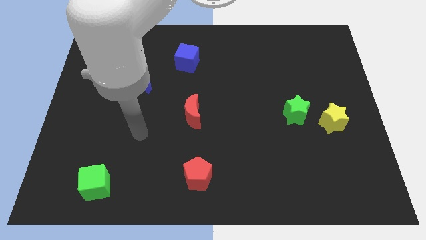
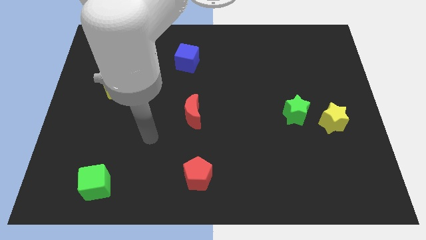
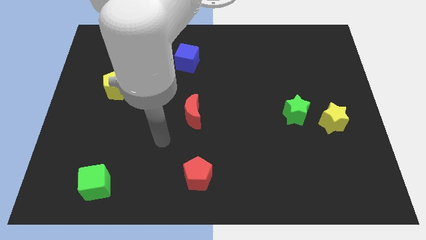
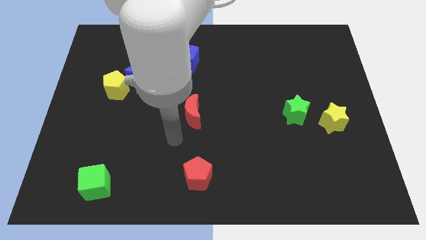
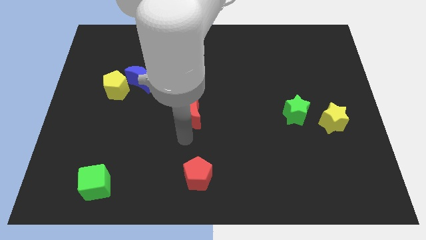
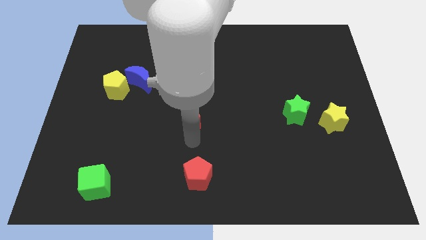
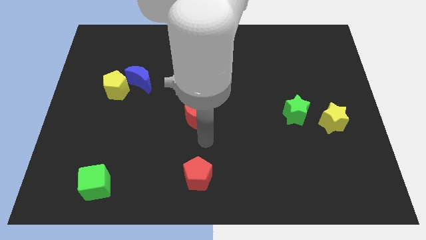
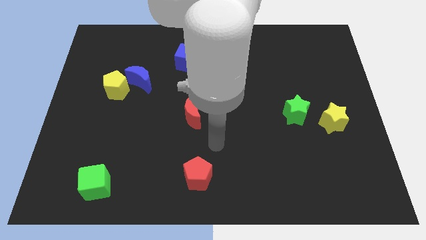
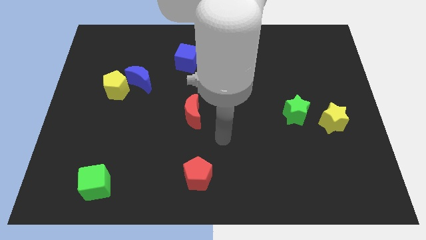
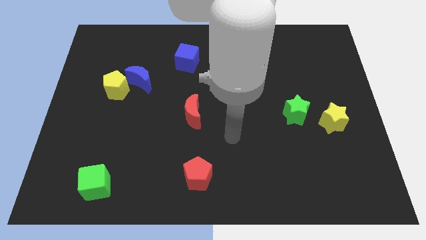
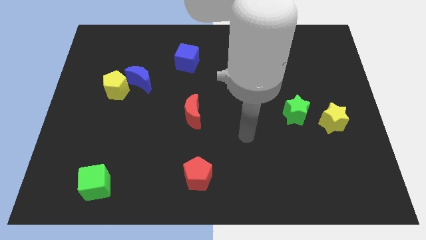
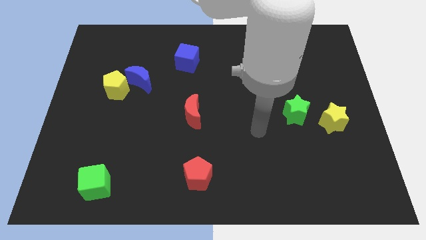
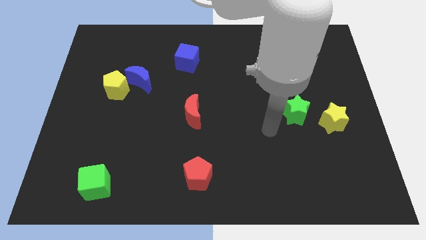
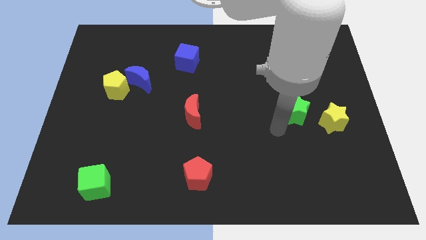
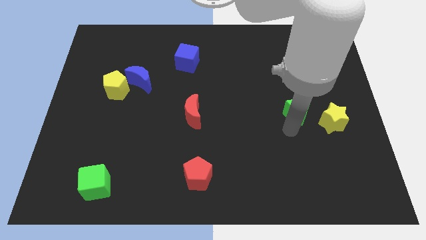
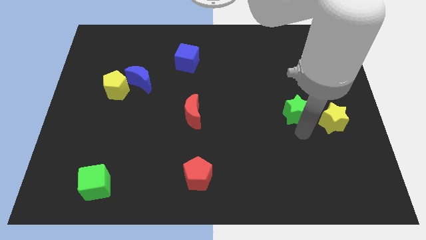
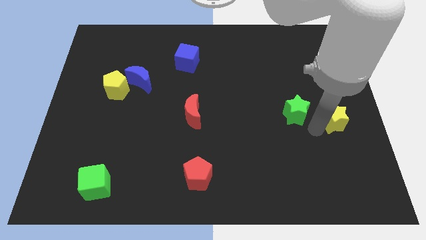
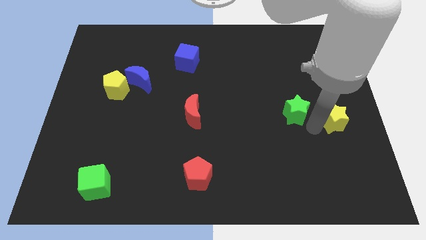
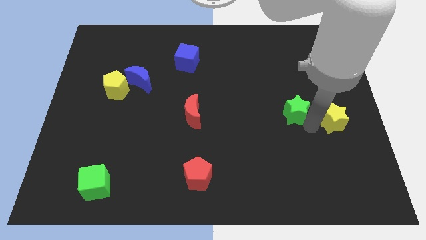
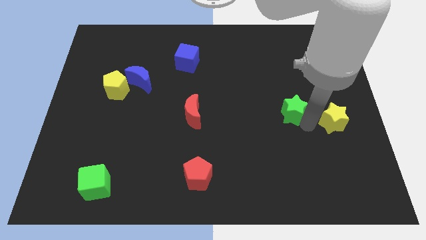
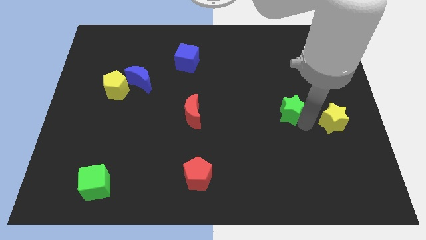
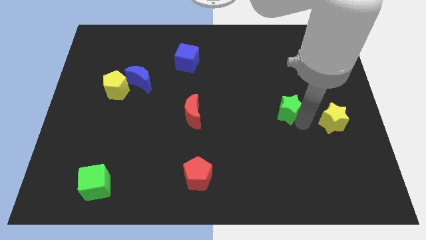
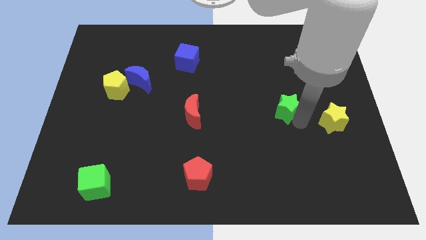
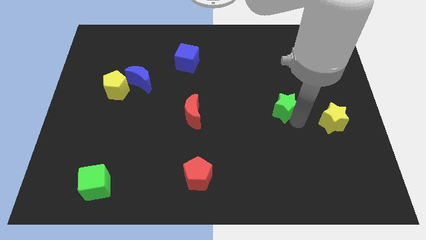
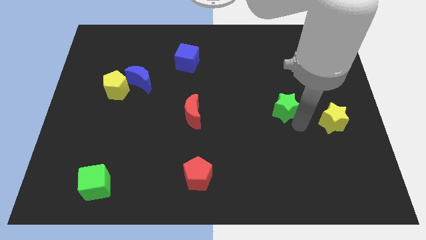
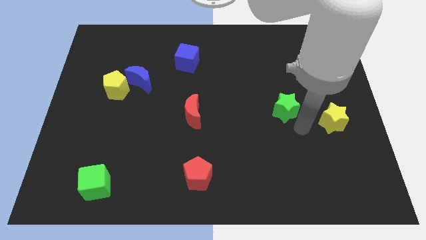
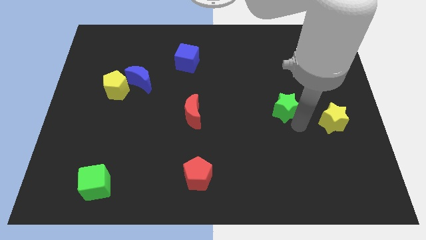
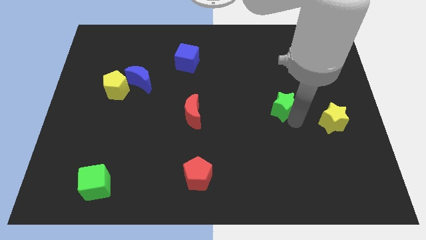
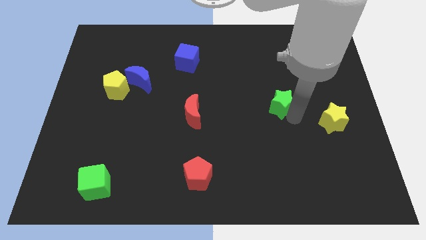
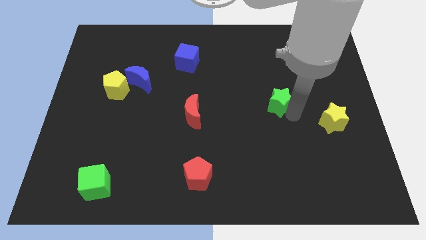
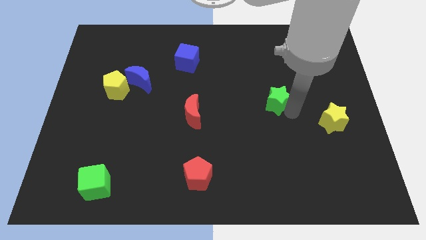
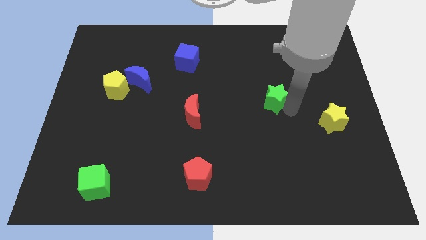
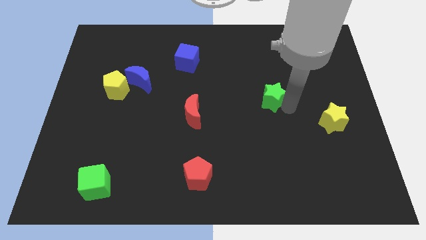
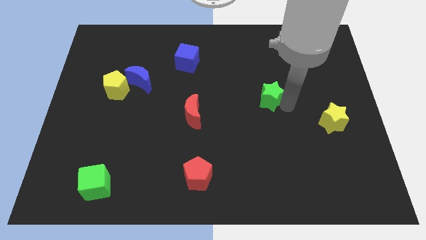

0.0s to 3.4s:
slightly slide the green star up and left

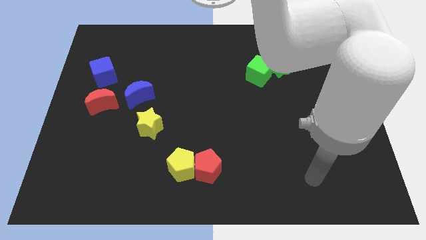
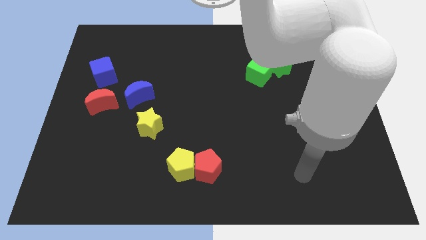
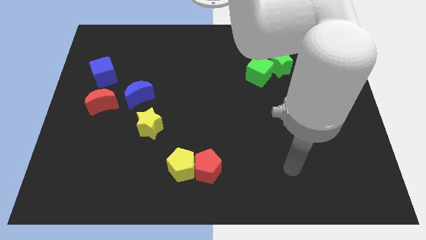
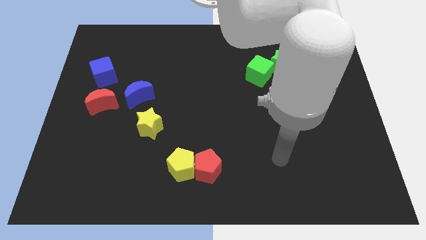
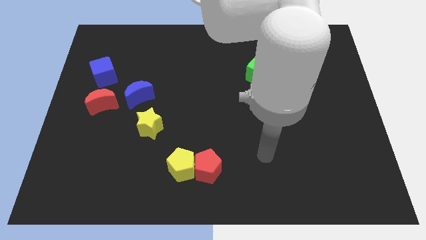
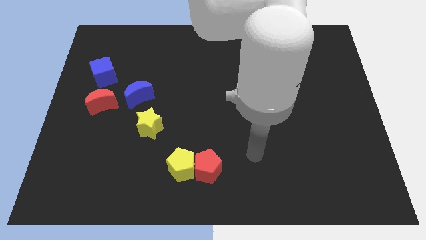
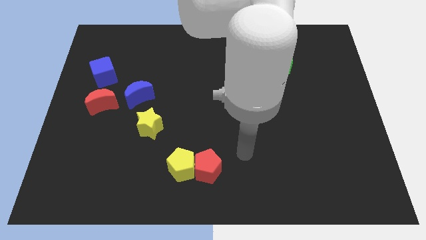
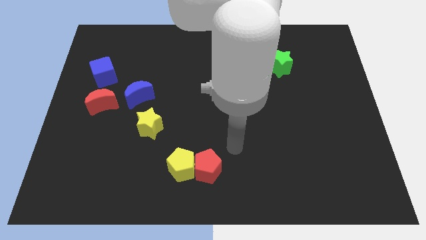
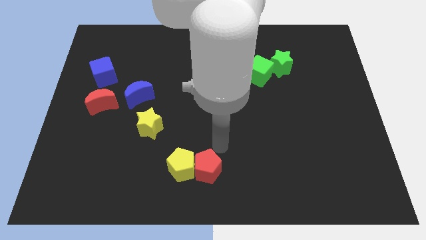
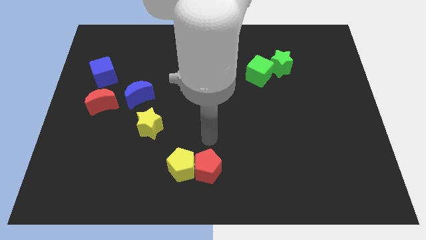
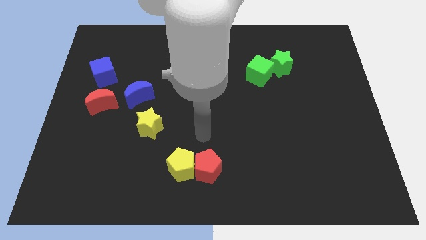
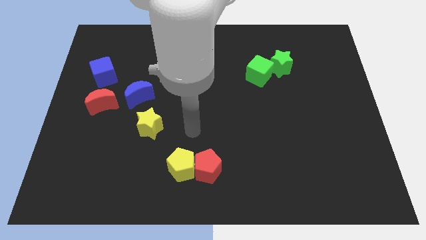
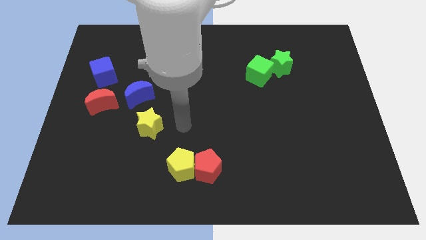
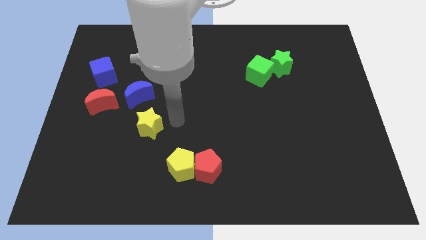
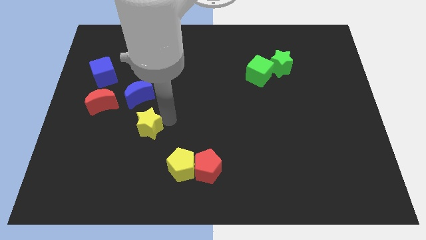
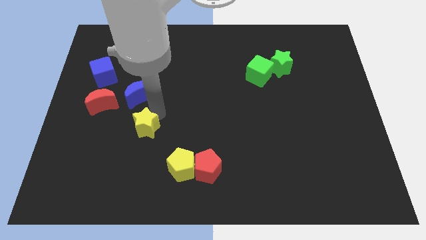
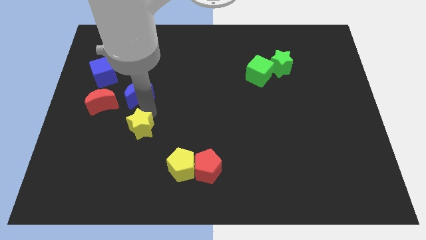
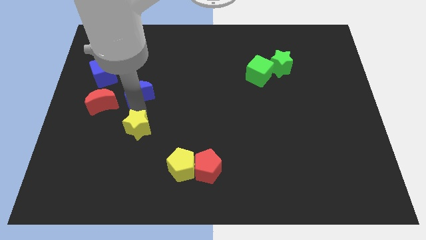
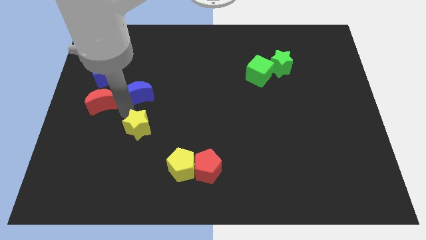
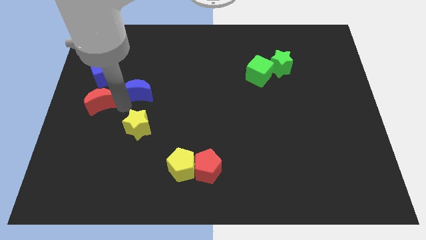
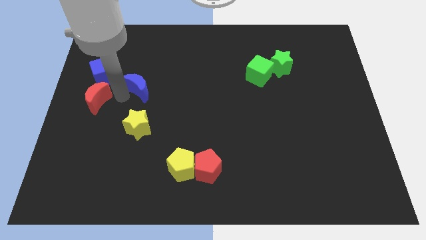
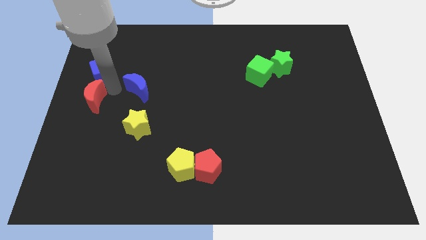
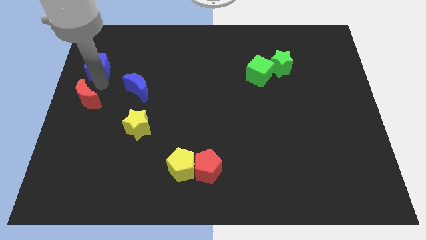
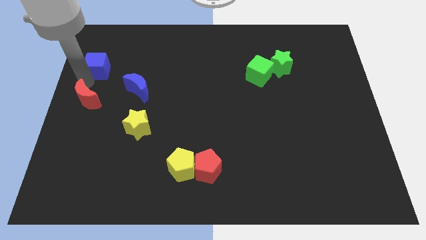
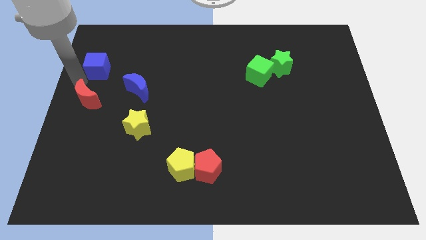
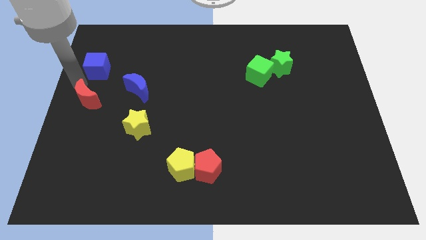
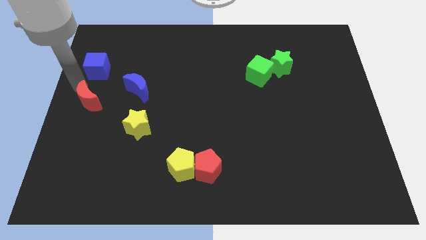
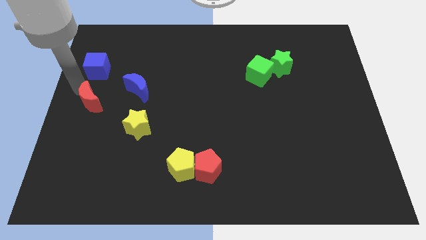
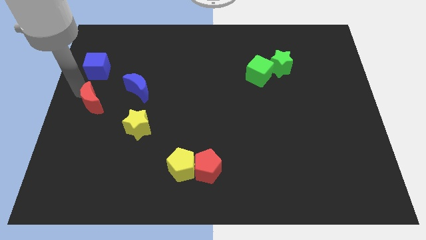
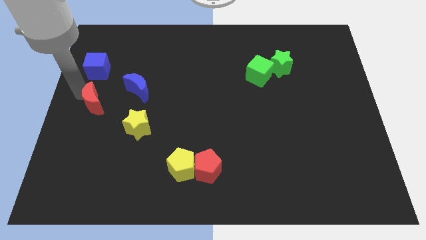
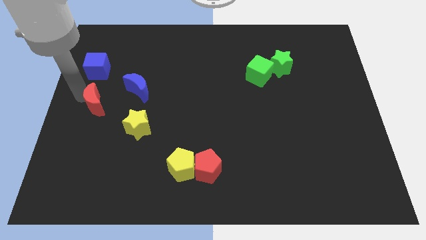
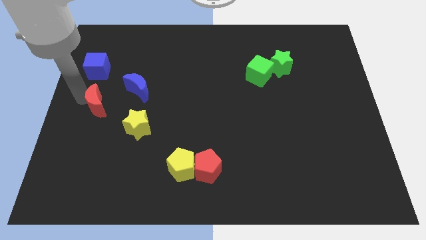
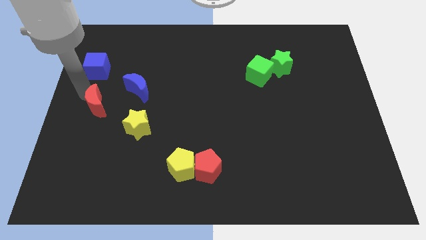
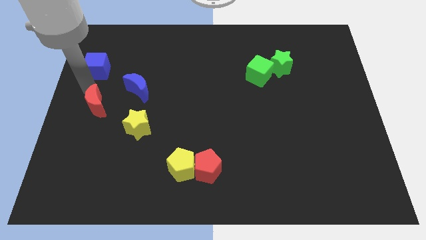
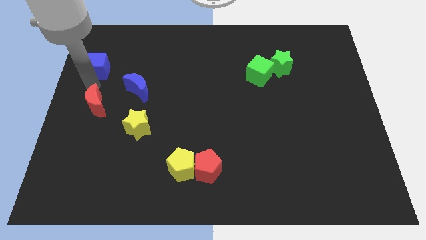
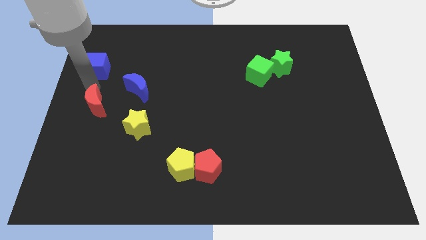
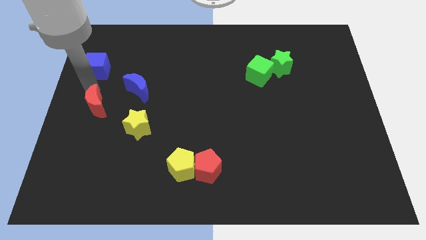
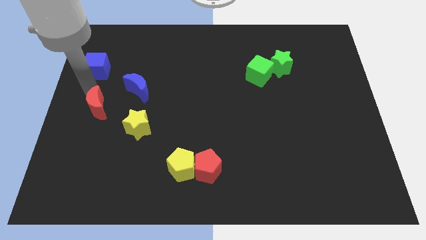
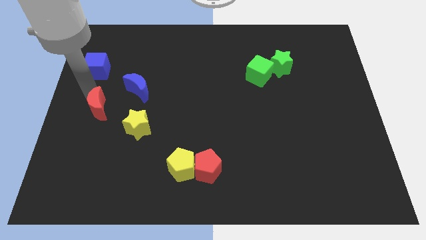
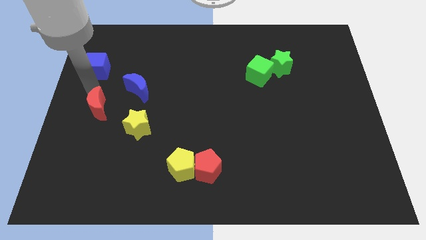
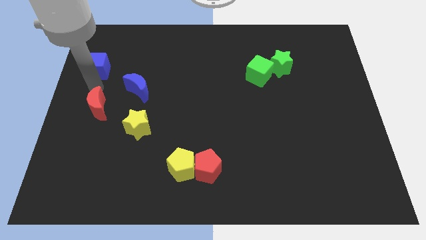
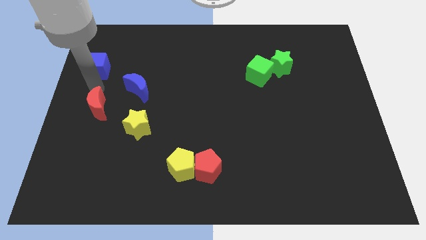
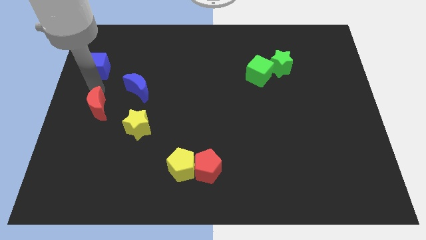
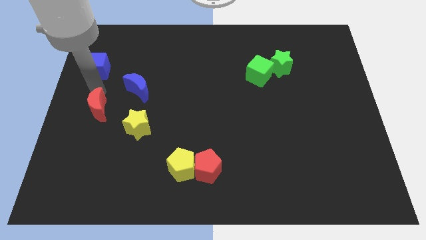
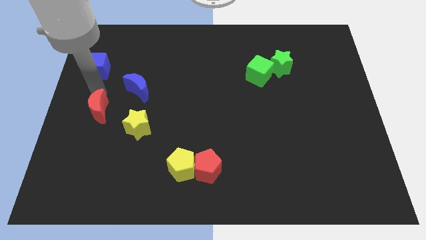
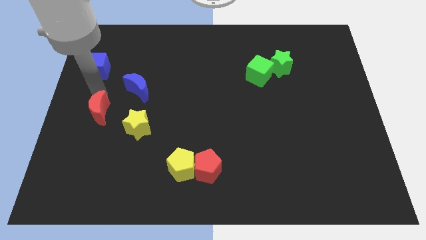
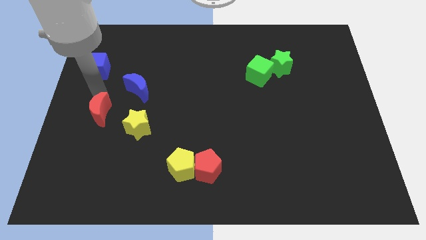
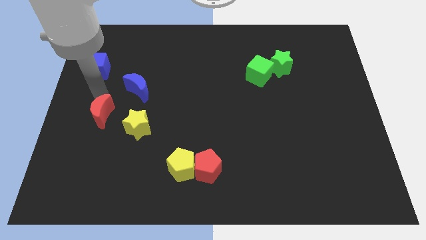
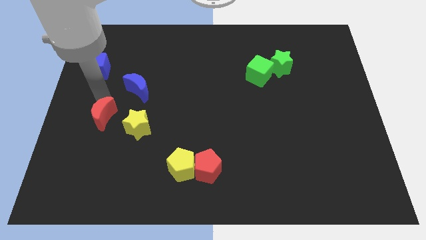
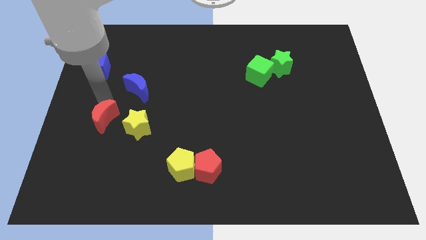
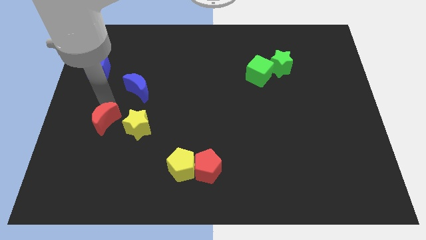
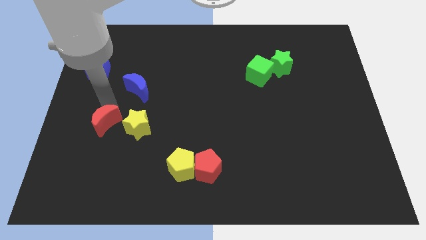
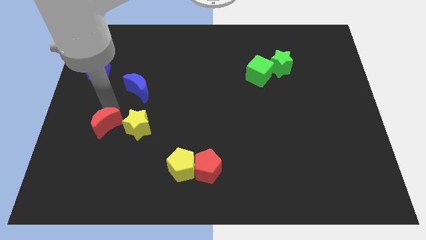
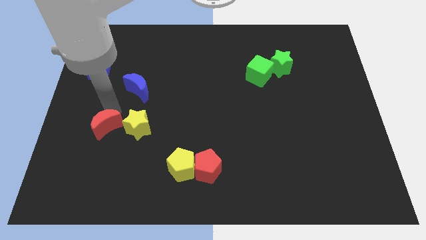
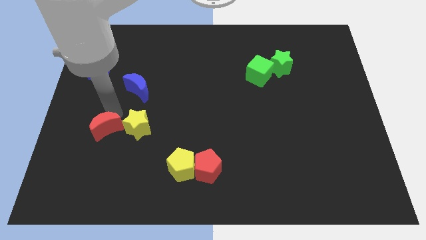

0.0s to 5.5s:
slightly move the red moon downwards
